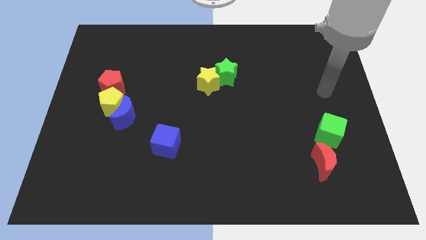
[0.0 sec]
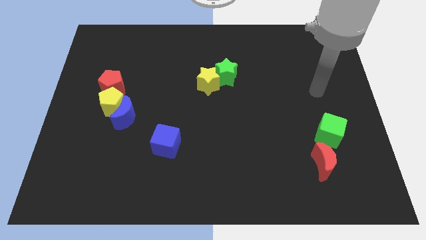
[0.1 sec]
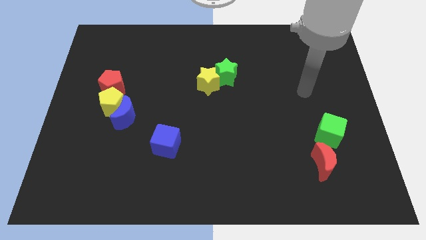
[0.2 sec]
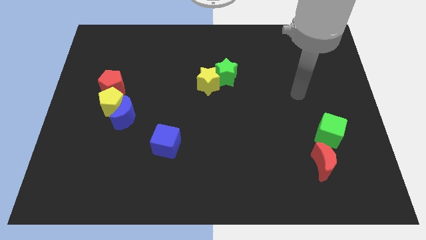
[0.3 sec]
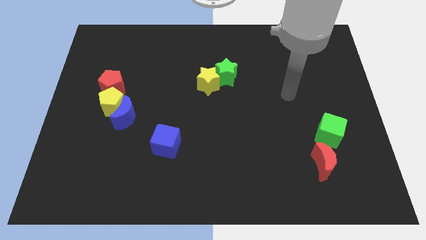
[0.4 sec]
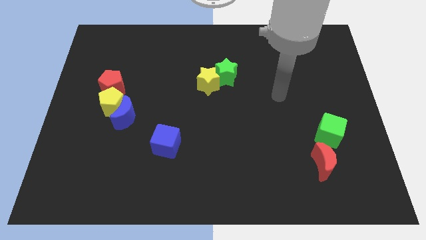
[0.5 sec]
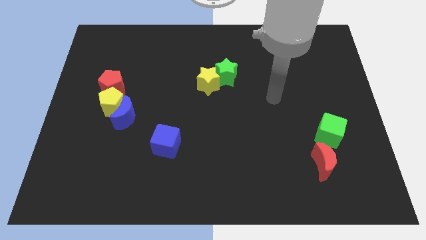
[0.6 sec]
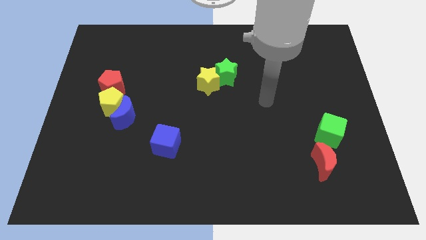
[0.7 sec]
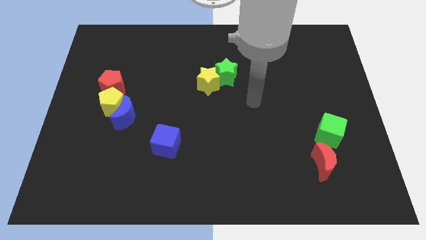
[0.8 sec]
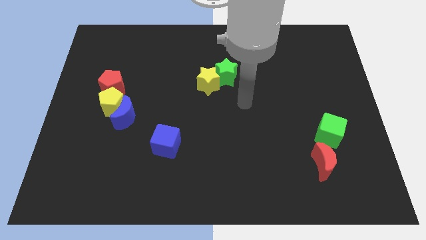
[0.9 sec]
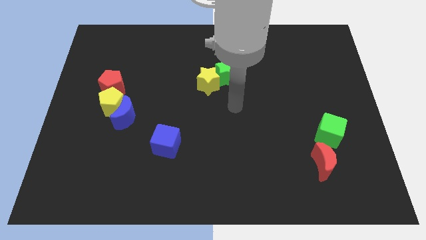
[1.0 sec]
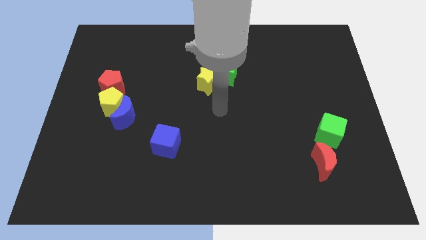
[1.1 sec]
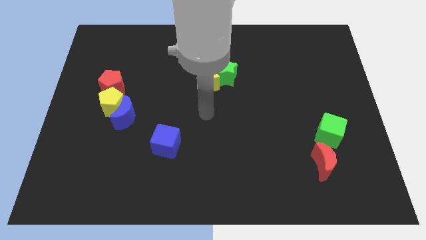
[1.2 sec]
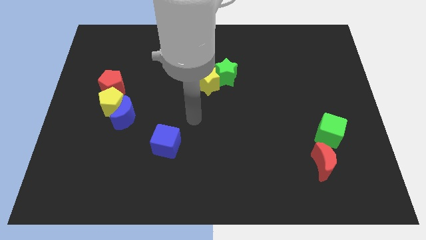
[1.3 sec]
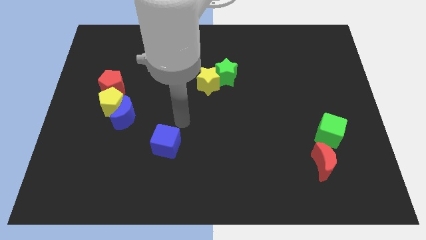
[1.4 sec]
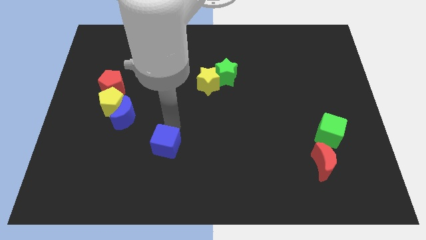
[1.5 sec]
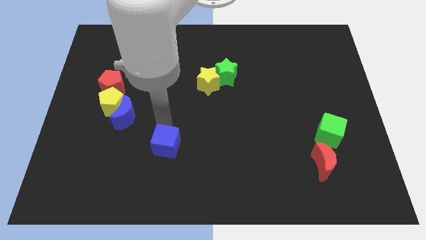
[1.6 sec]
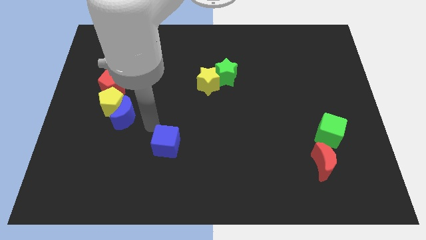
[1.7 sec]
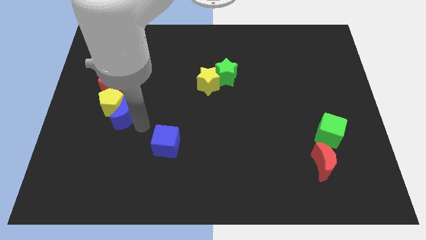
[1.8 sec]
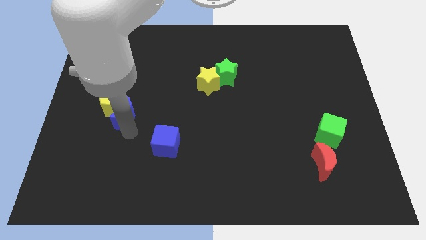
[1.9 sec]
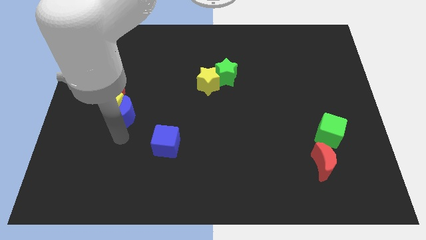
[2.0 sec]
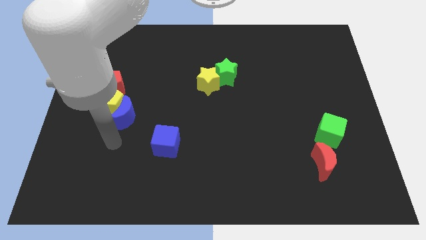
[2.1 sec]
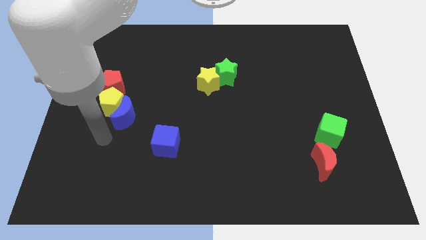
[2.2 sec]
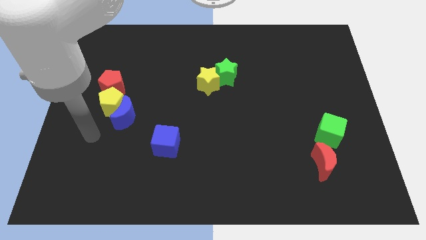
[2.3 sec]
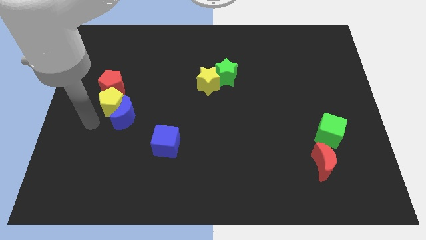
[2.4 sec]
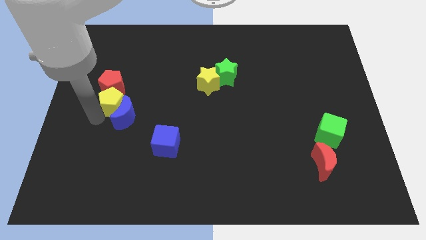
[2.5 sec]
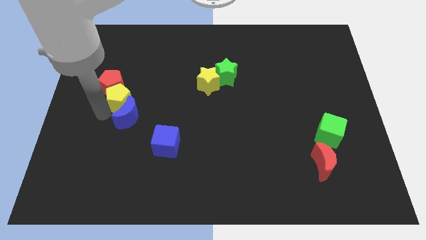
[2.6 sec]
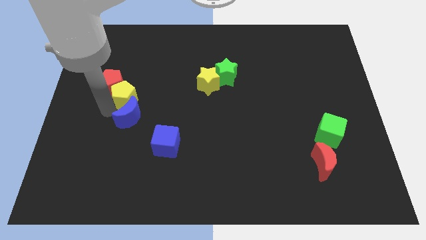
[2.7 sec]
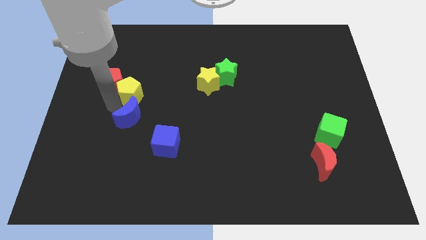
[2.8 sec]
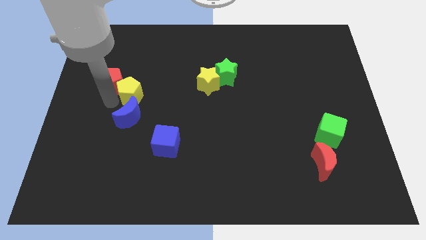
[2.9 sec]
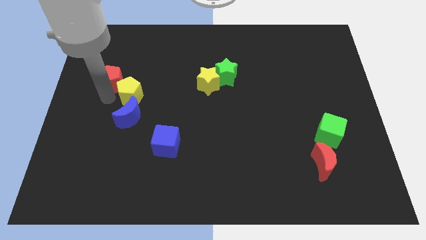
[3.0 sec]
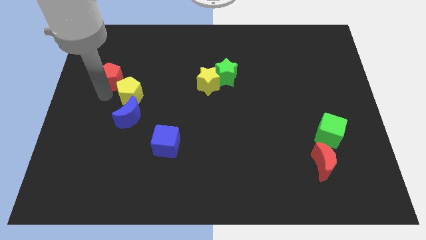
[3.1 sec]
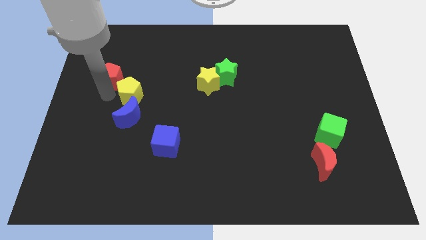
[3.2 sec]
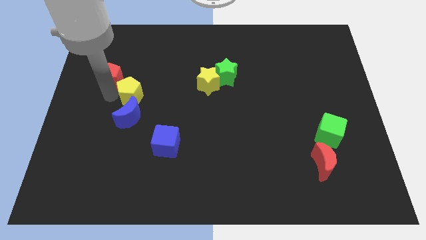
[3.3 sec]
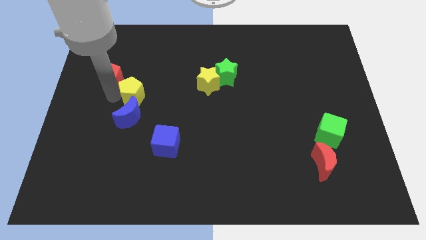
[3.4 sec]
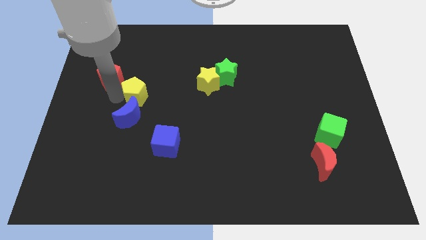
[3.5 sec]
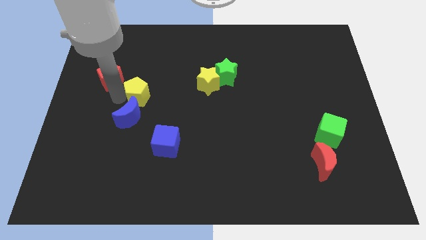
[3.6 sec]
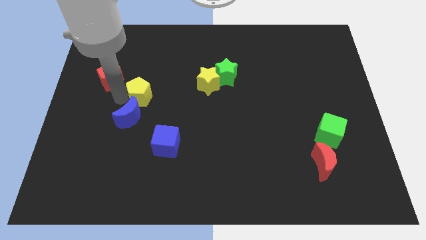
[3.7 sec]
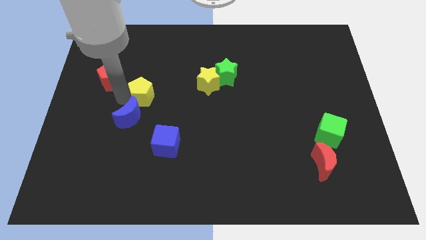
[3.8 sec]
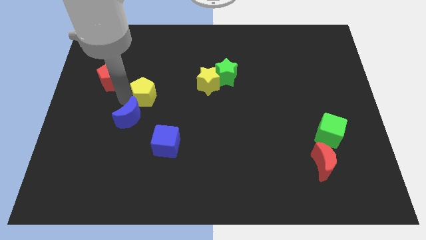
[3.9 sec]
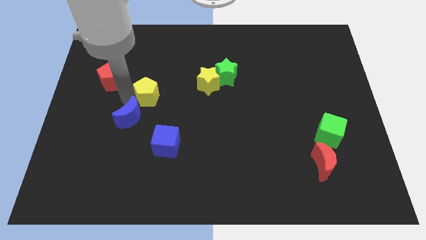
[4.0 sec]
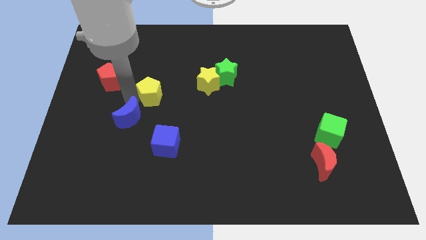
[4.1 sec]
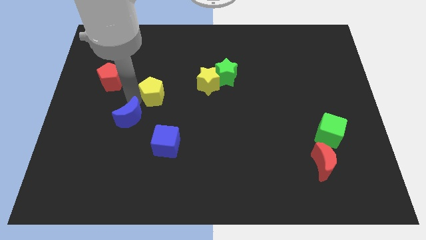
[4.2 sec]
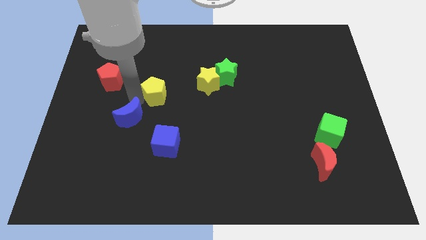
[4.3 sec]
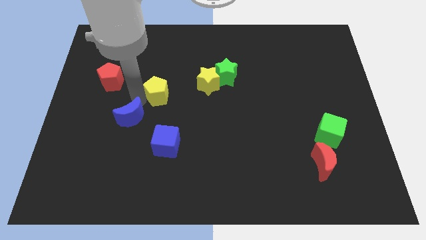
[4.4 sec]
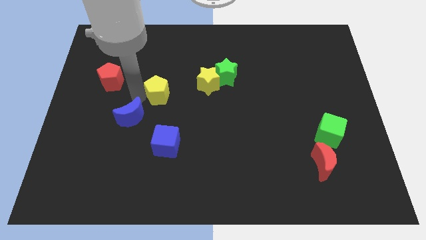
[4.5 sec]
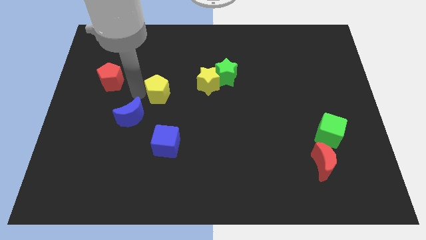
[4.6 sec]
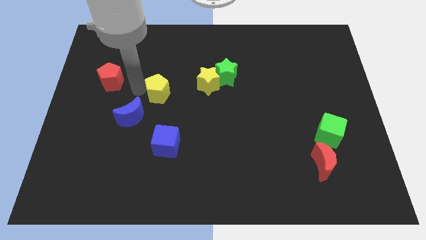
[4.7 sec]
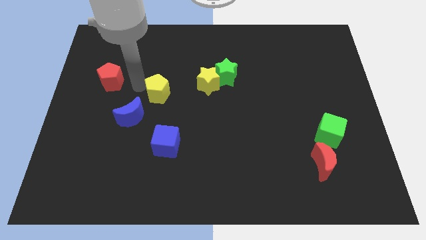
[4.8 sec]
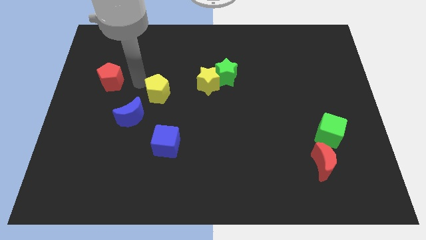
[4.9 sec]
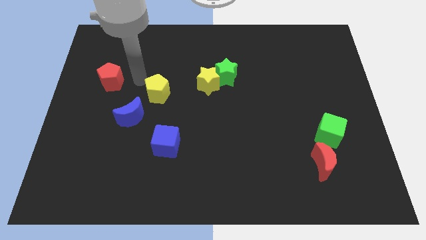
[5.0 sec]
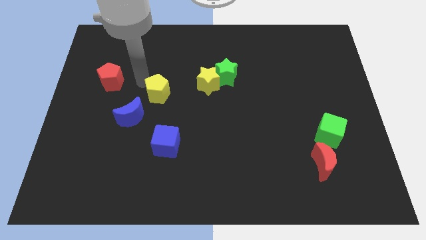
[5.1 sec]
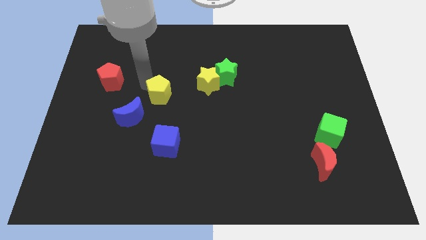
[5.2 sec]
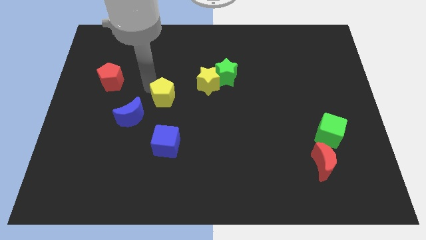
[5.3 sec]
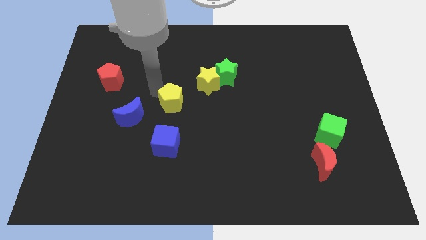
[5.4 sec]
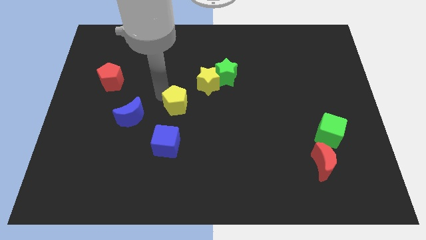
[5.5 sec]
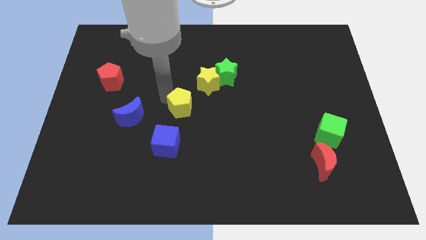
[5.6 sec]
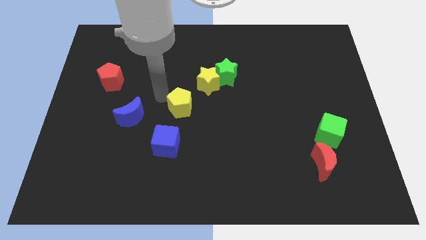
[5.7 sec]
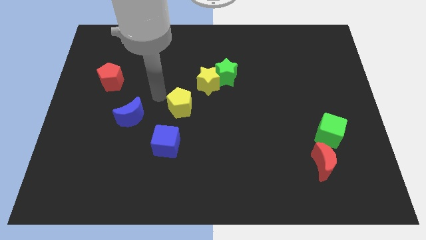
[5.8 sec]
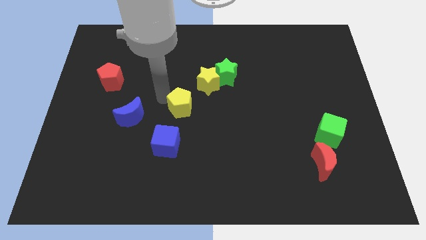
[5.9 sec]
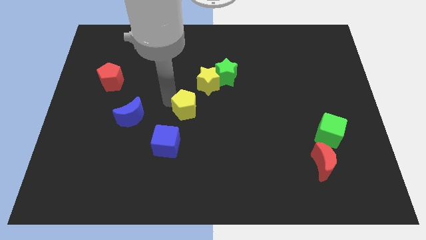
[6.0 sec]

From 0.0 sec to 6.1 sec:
move the yellow pentagon to the bottom of the yellow star
